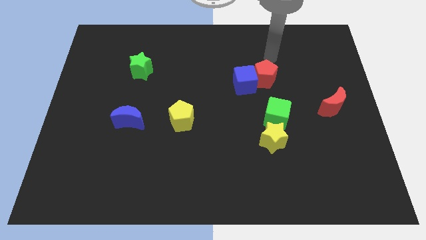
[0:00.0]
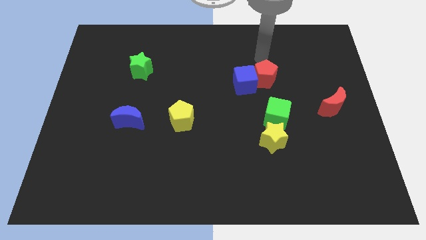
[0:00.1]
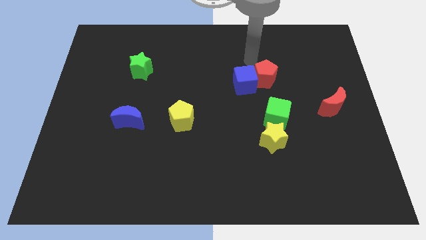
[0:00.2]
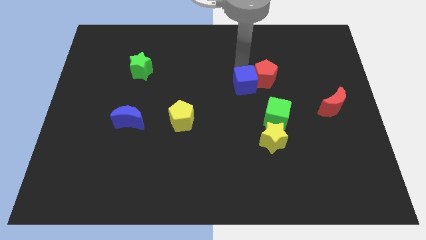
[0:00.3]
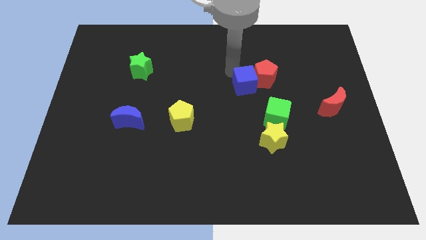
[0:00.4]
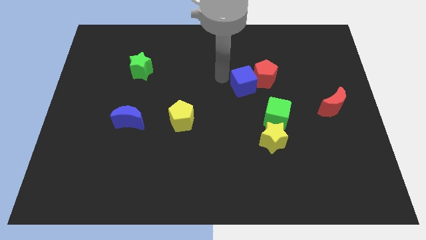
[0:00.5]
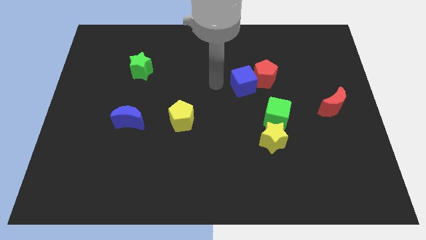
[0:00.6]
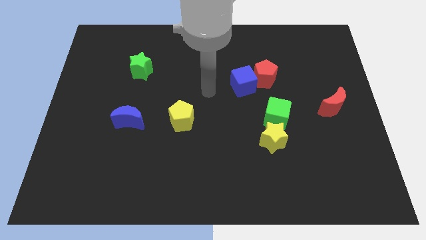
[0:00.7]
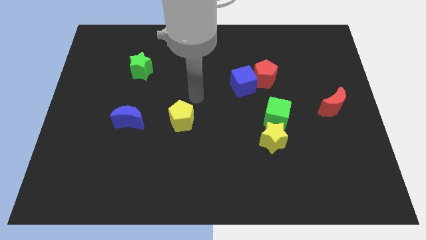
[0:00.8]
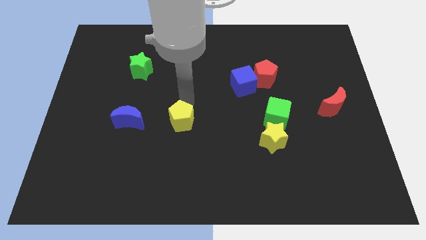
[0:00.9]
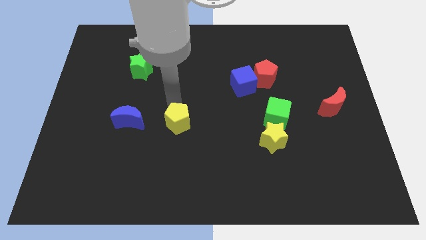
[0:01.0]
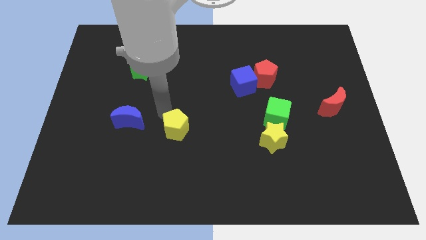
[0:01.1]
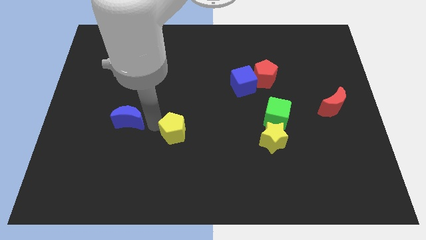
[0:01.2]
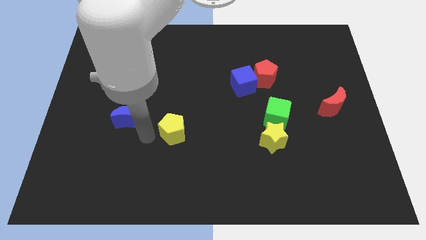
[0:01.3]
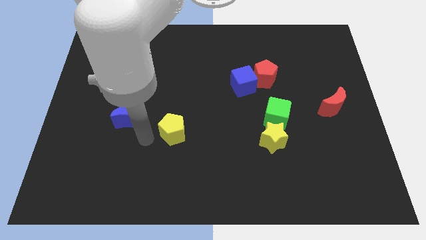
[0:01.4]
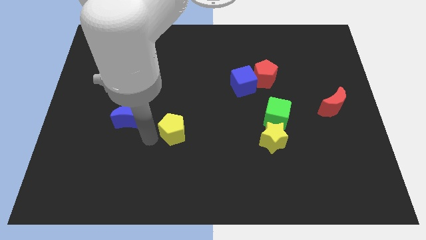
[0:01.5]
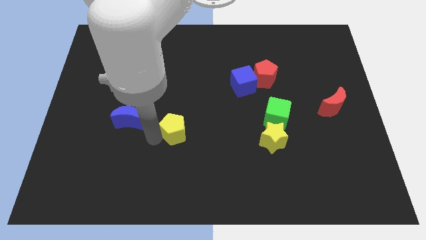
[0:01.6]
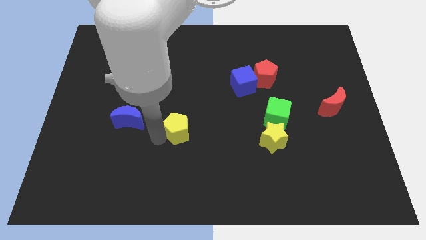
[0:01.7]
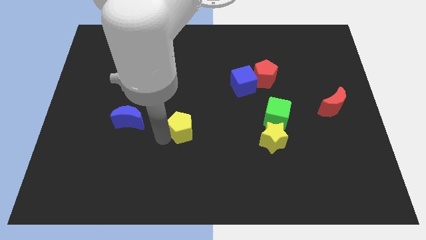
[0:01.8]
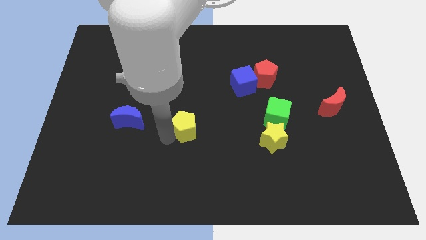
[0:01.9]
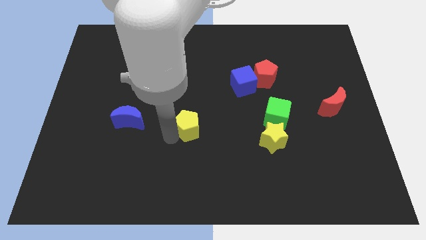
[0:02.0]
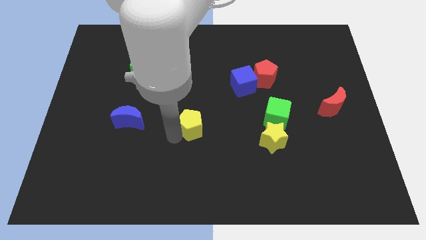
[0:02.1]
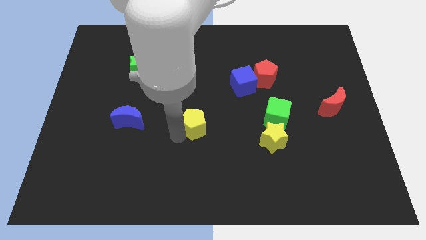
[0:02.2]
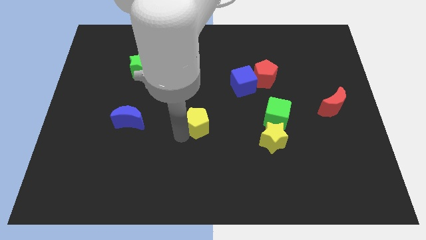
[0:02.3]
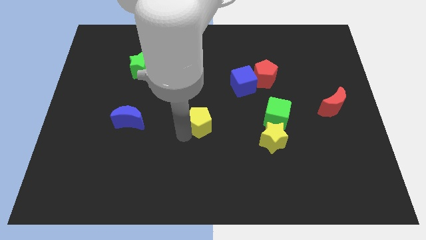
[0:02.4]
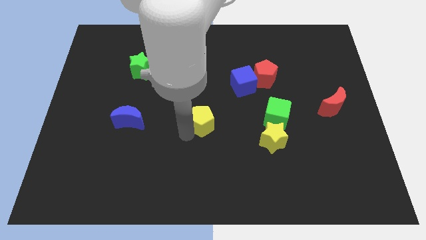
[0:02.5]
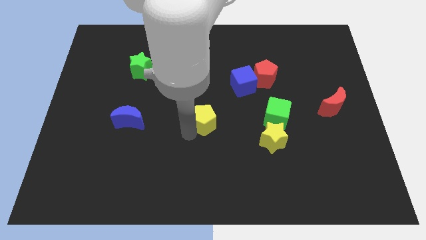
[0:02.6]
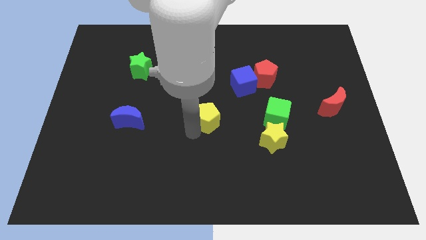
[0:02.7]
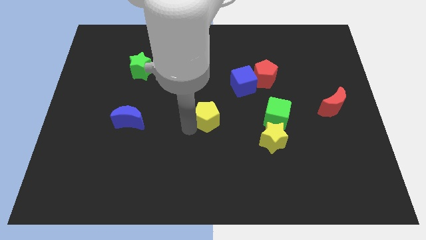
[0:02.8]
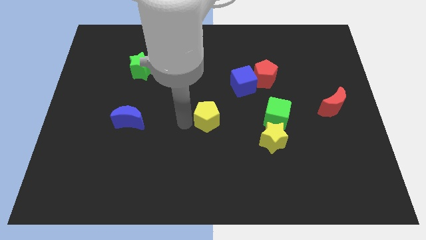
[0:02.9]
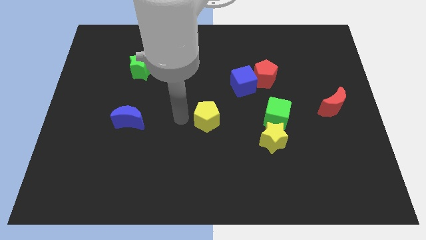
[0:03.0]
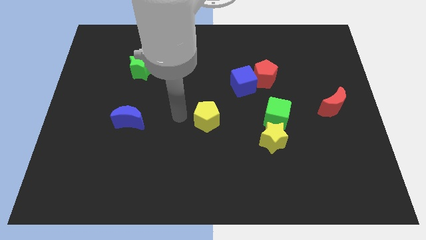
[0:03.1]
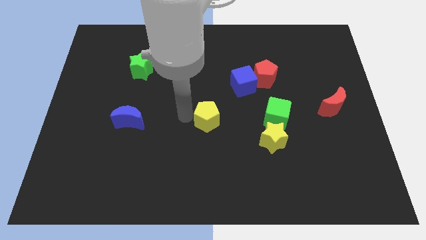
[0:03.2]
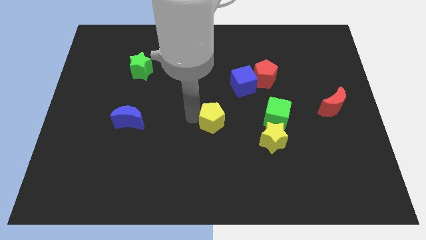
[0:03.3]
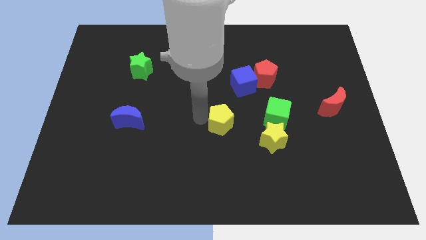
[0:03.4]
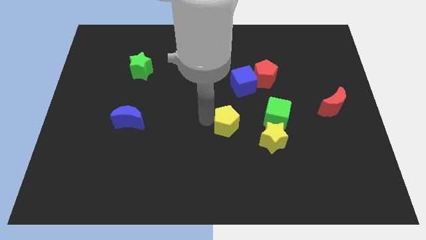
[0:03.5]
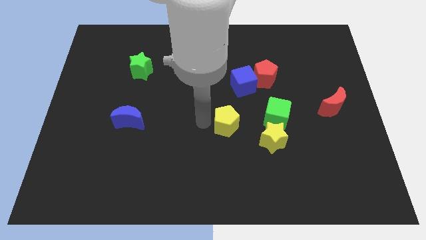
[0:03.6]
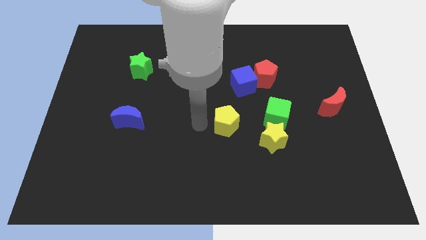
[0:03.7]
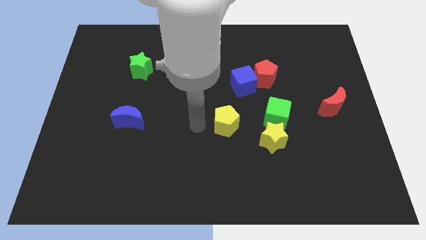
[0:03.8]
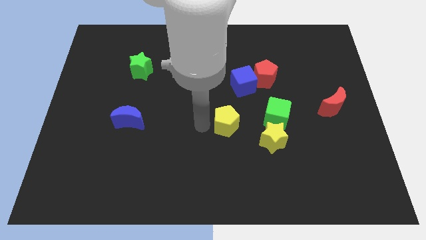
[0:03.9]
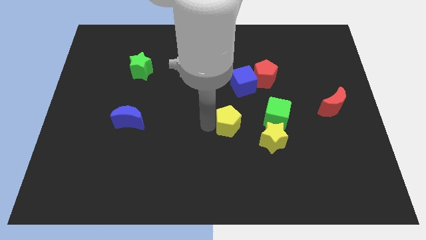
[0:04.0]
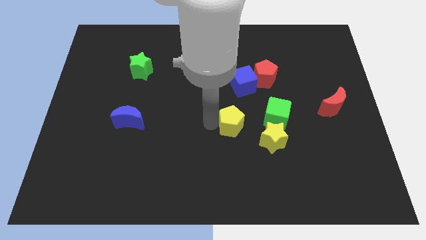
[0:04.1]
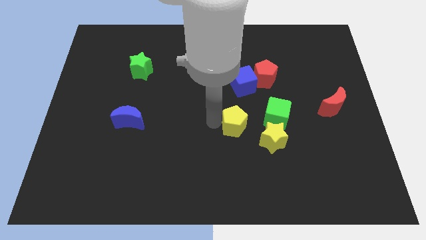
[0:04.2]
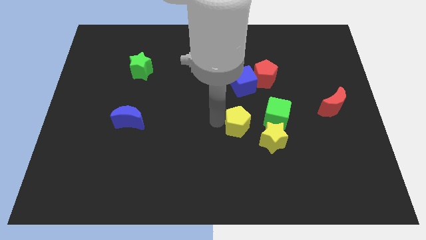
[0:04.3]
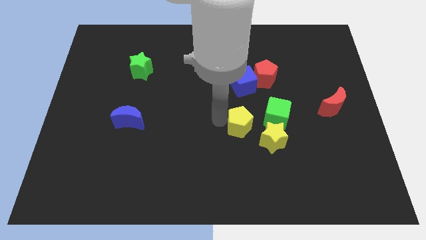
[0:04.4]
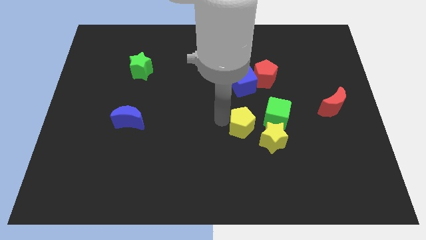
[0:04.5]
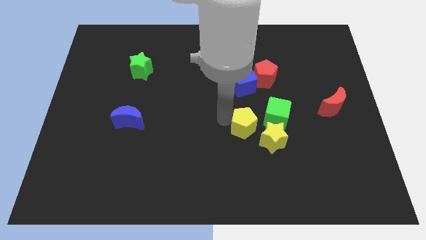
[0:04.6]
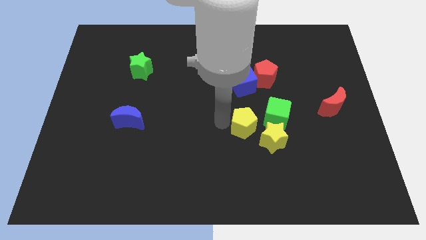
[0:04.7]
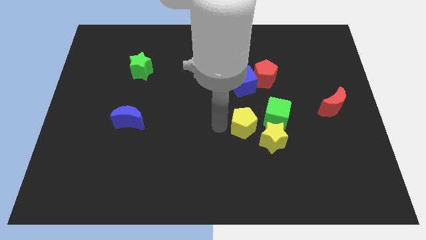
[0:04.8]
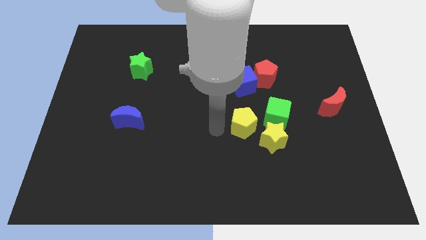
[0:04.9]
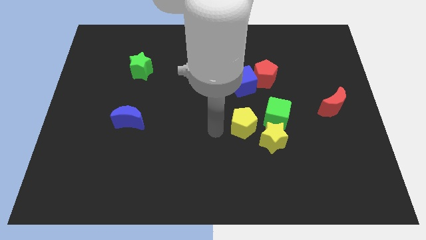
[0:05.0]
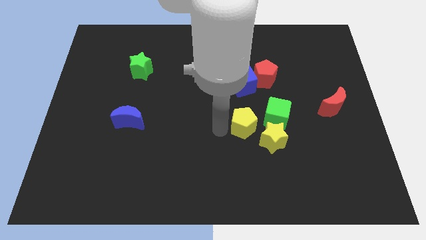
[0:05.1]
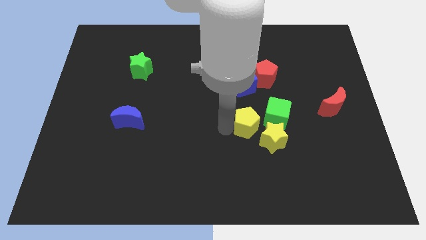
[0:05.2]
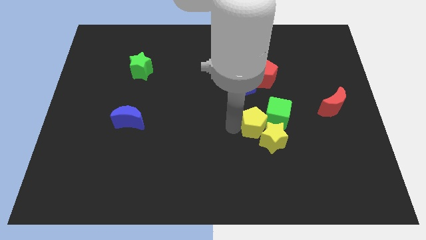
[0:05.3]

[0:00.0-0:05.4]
push the yellow pentagon to the green cube

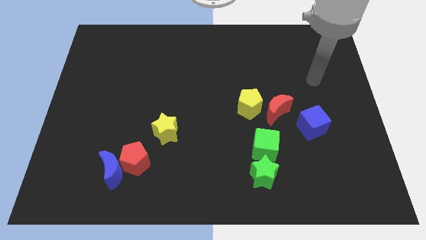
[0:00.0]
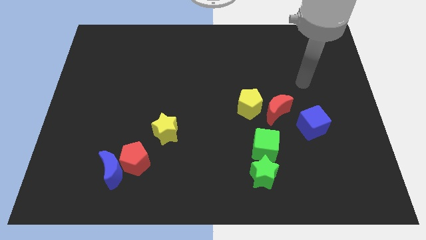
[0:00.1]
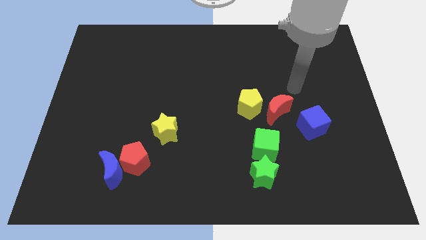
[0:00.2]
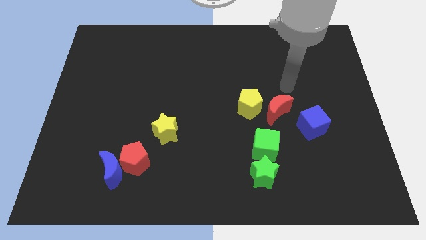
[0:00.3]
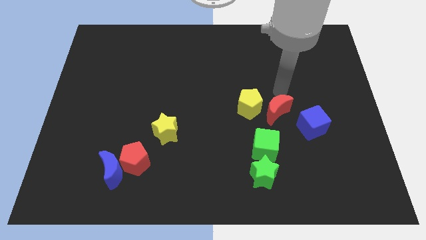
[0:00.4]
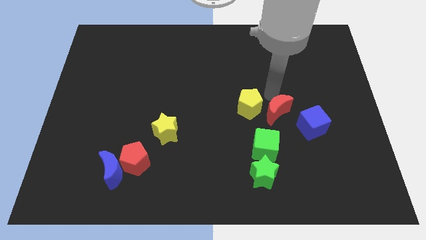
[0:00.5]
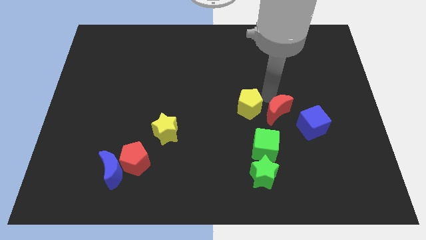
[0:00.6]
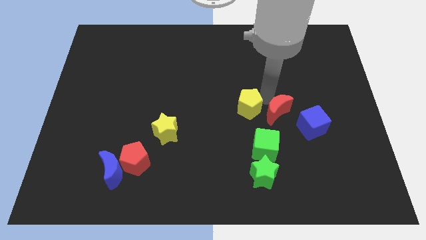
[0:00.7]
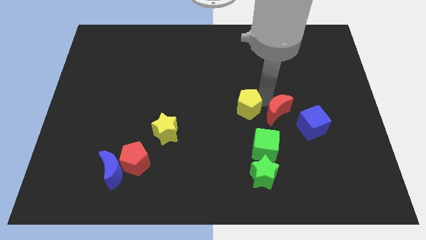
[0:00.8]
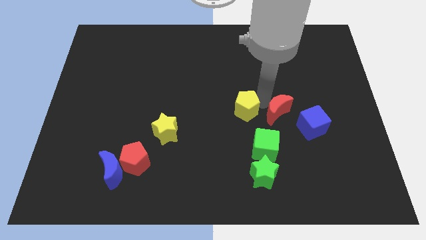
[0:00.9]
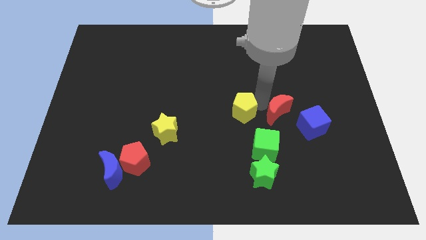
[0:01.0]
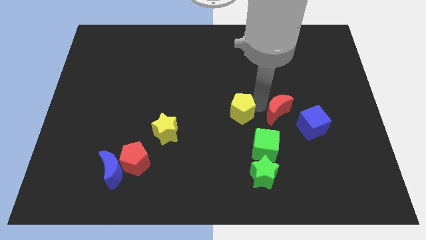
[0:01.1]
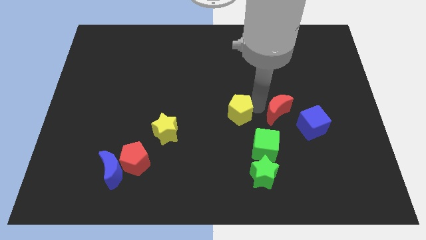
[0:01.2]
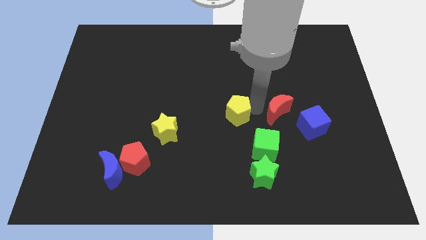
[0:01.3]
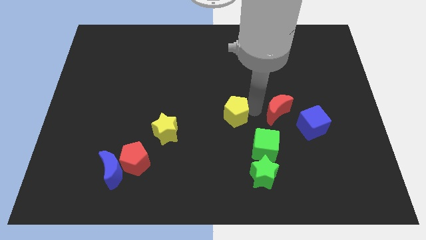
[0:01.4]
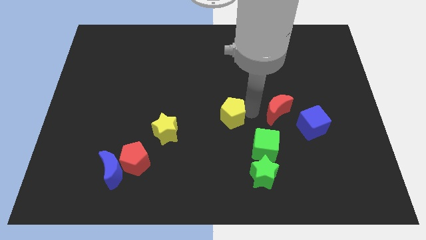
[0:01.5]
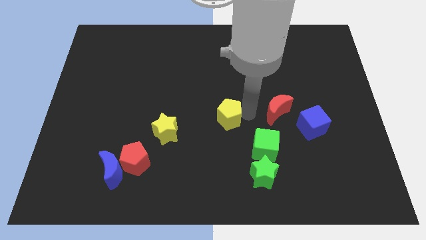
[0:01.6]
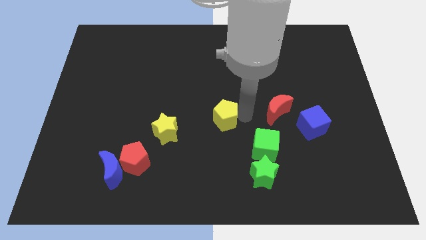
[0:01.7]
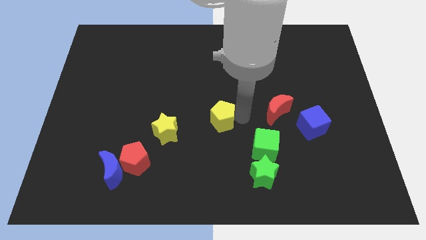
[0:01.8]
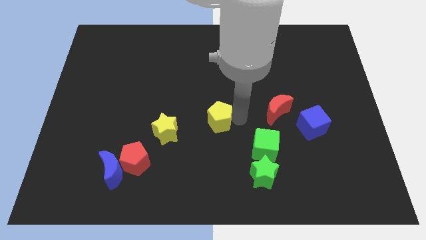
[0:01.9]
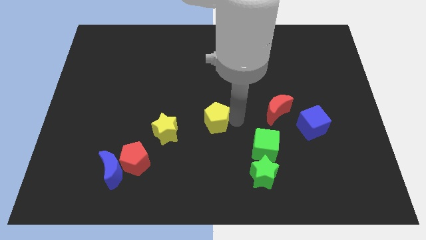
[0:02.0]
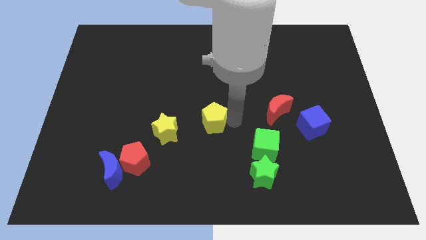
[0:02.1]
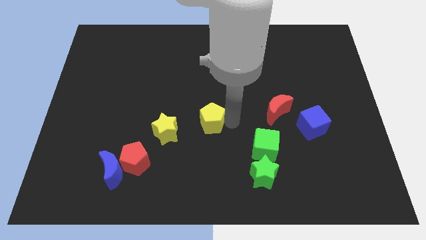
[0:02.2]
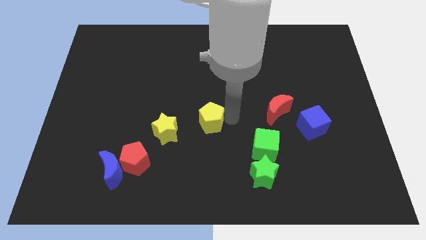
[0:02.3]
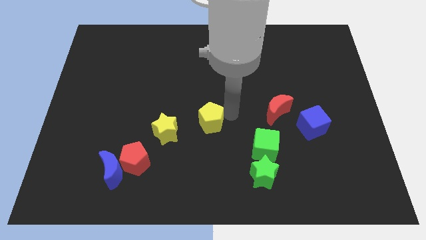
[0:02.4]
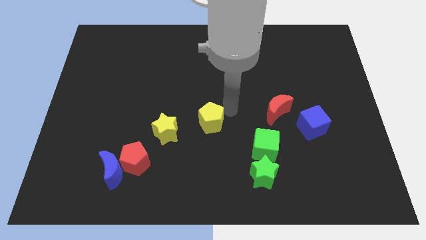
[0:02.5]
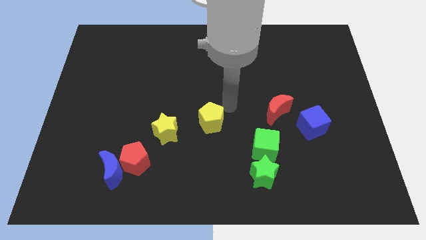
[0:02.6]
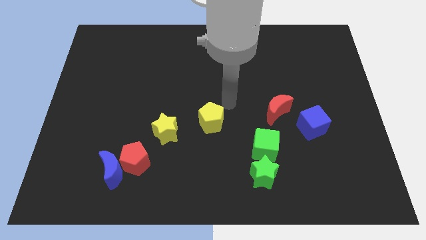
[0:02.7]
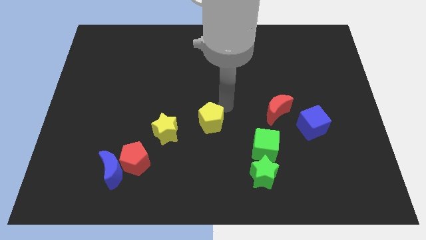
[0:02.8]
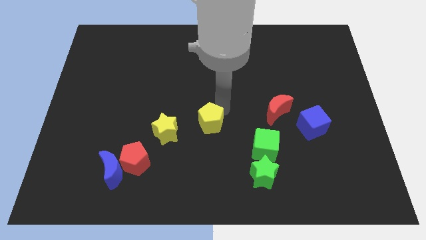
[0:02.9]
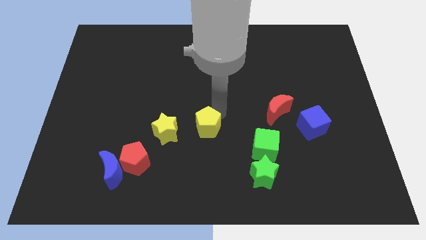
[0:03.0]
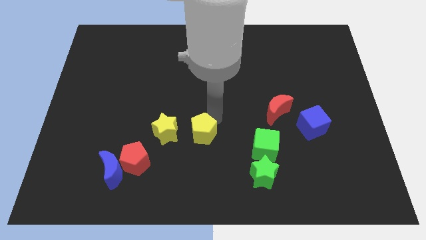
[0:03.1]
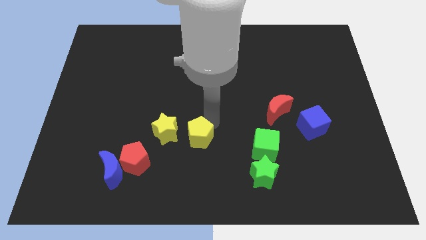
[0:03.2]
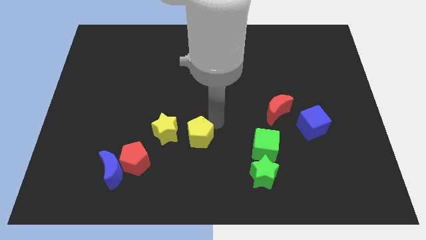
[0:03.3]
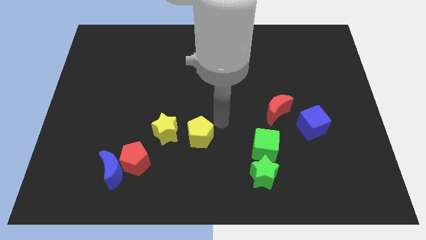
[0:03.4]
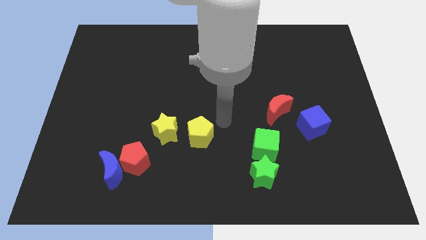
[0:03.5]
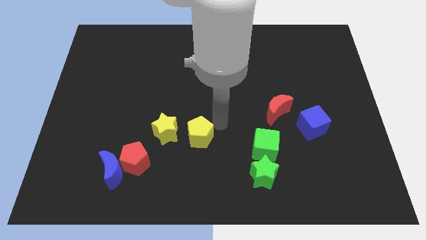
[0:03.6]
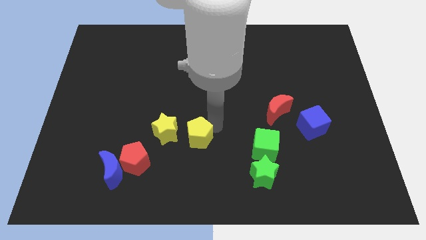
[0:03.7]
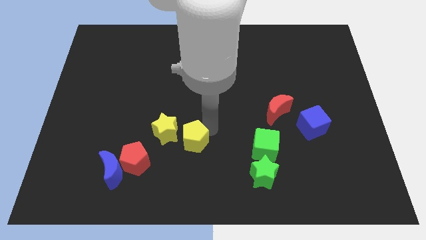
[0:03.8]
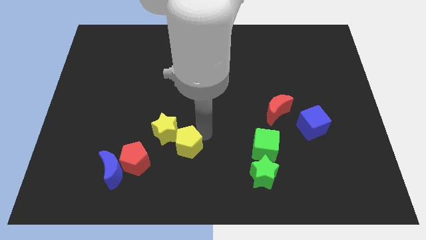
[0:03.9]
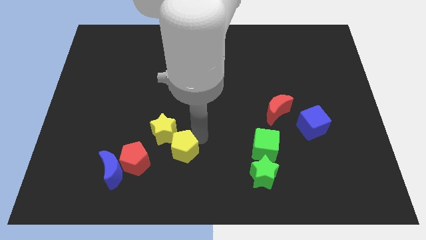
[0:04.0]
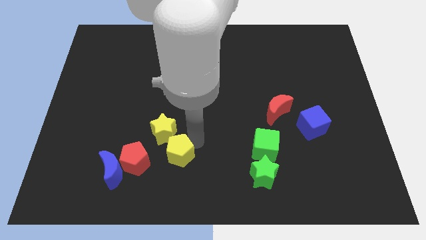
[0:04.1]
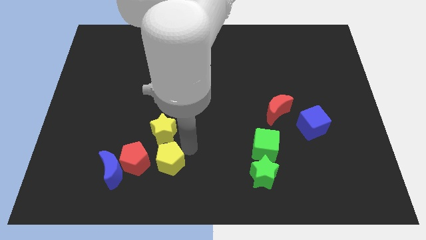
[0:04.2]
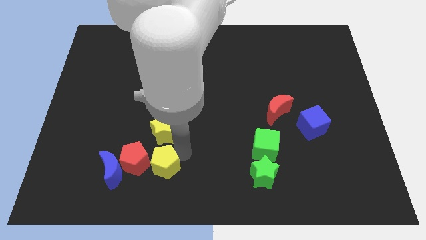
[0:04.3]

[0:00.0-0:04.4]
put the yellow pentagon towards the red pentagon
